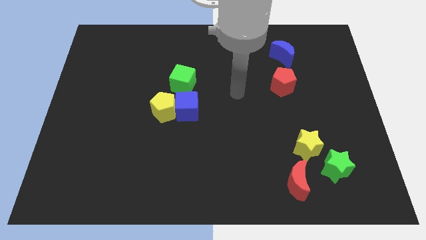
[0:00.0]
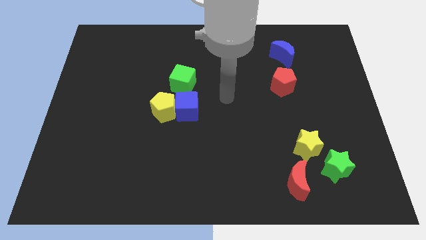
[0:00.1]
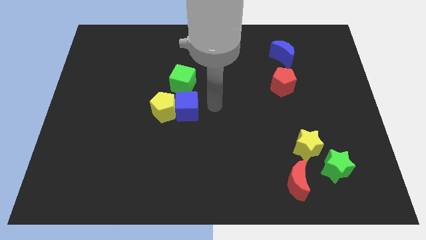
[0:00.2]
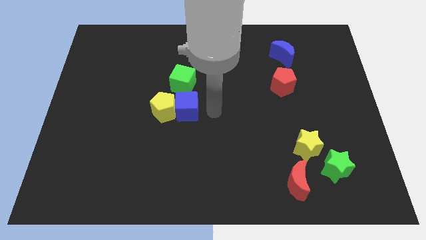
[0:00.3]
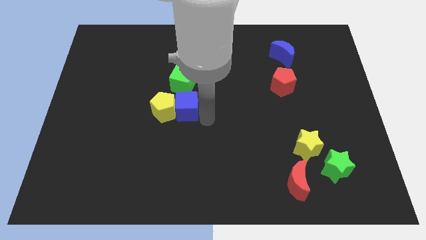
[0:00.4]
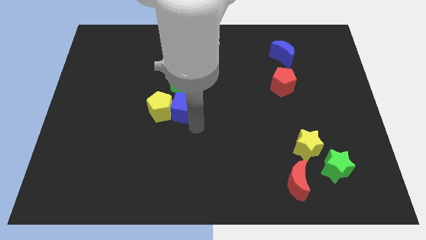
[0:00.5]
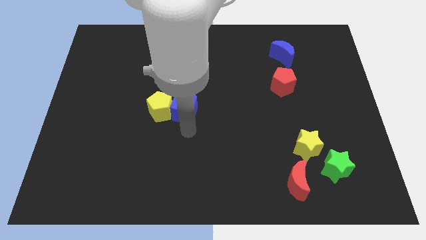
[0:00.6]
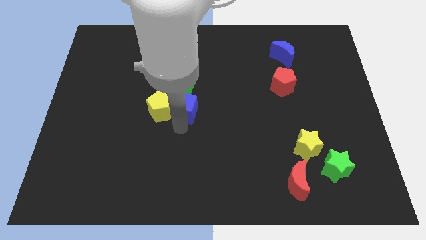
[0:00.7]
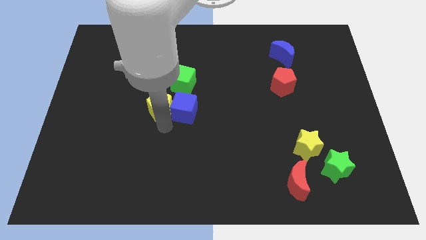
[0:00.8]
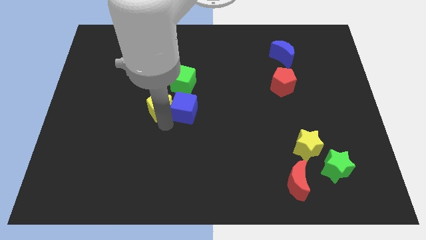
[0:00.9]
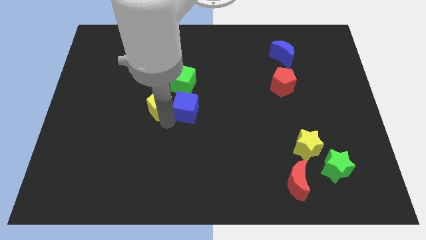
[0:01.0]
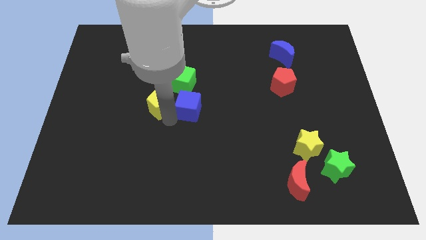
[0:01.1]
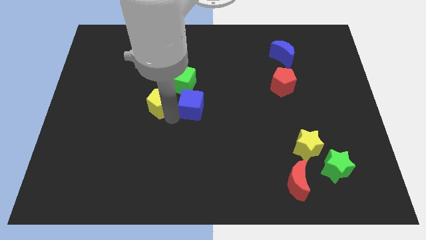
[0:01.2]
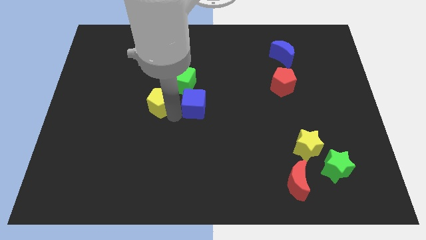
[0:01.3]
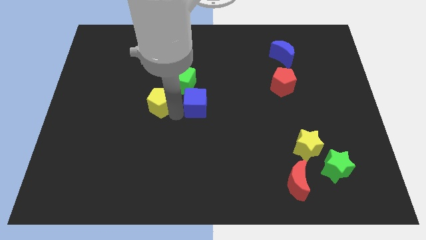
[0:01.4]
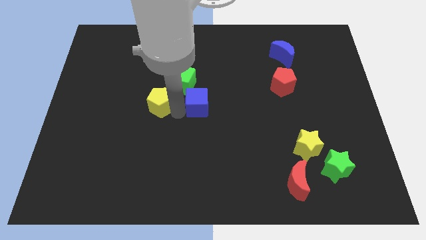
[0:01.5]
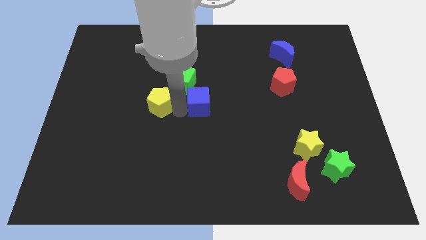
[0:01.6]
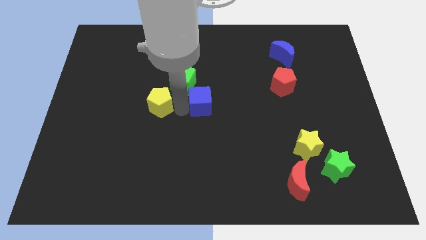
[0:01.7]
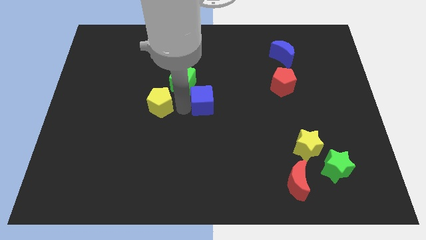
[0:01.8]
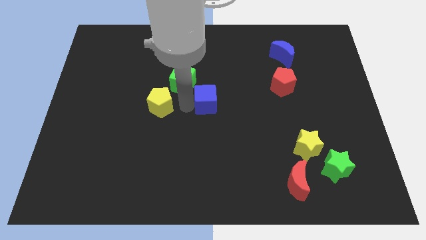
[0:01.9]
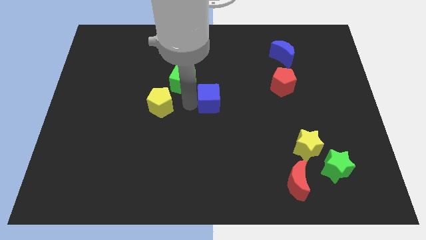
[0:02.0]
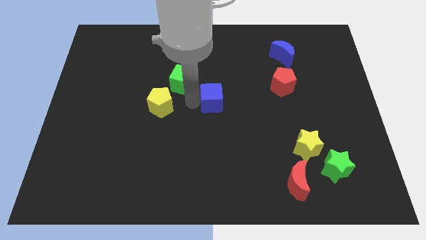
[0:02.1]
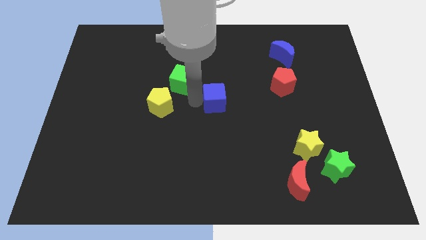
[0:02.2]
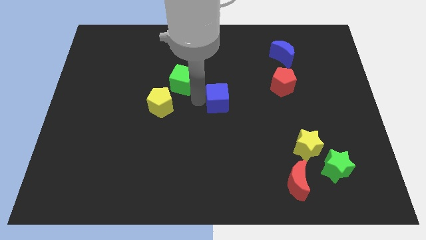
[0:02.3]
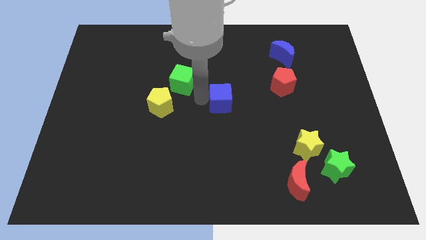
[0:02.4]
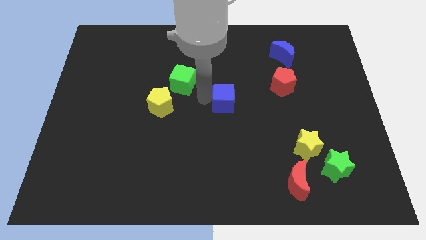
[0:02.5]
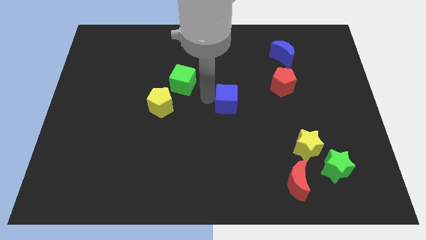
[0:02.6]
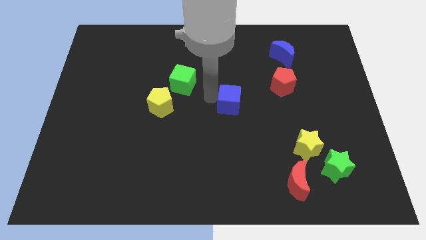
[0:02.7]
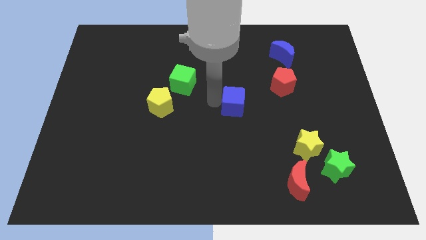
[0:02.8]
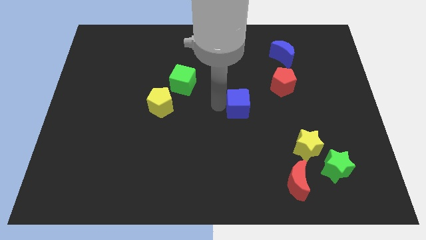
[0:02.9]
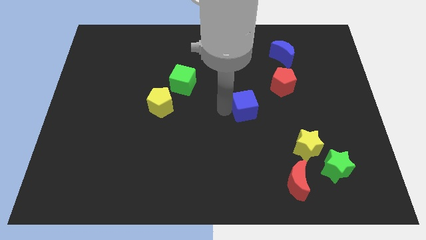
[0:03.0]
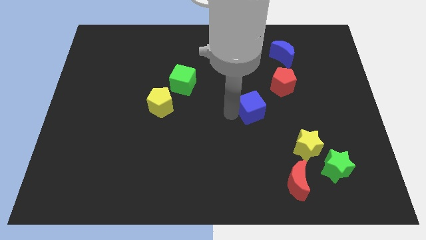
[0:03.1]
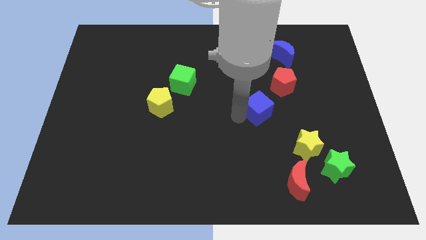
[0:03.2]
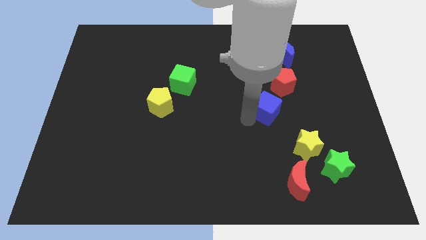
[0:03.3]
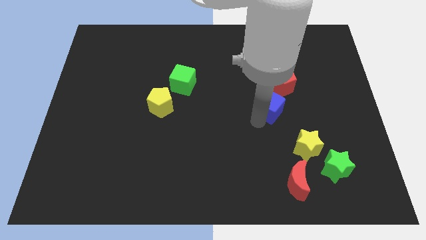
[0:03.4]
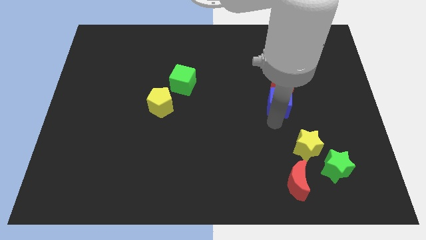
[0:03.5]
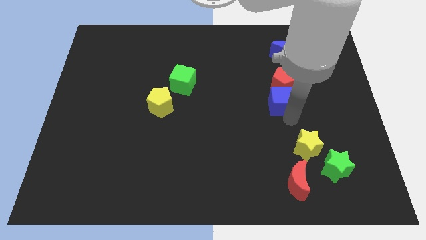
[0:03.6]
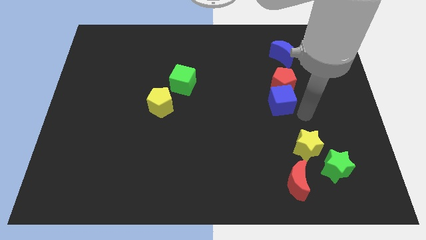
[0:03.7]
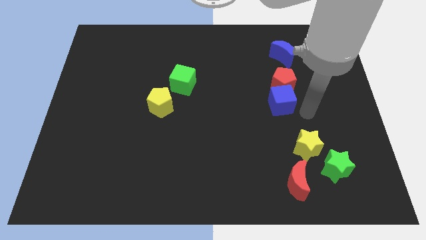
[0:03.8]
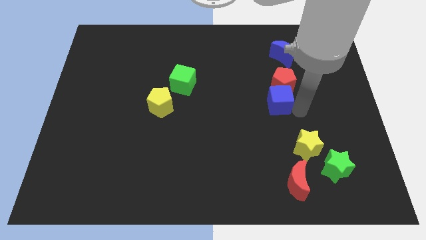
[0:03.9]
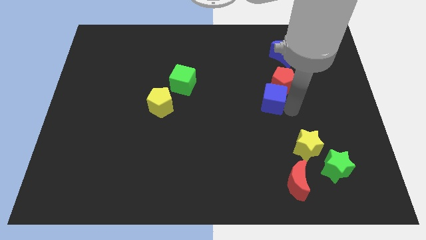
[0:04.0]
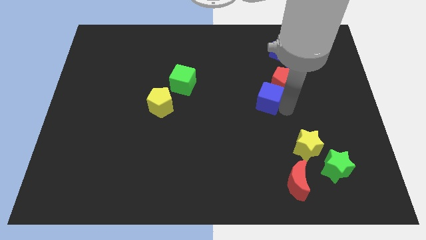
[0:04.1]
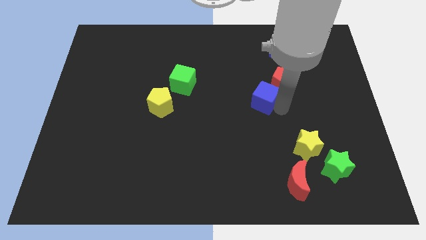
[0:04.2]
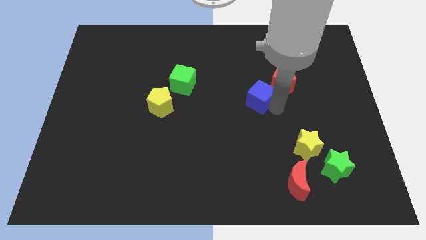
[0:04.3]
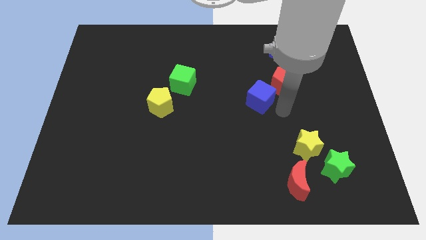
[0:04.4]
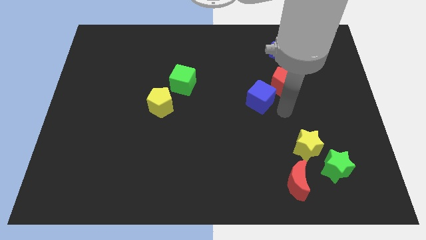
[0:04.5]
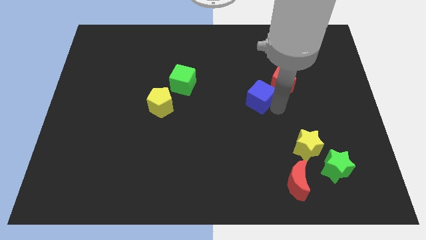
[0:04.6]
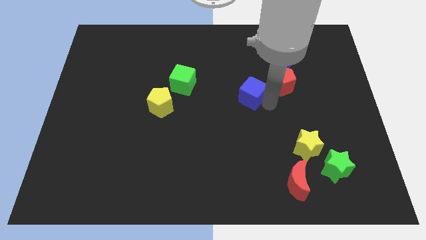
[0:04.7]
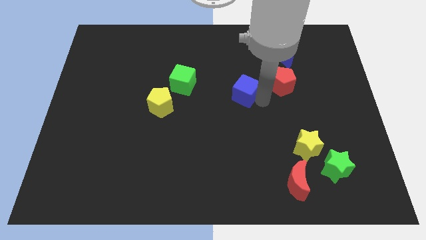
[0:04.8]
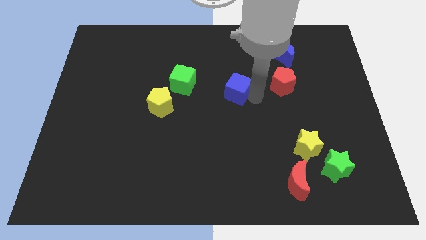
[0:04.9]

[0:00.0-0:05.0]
slide the blue cube to the right of the green cube

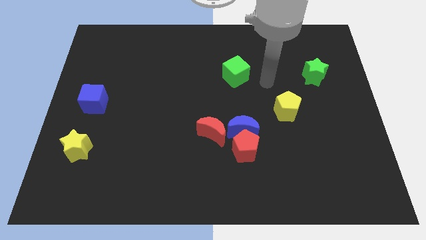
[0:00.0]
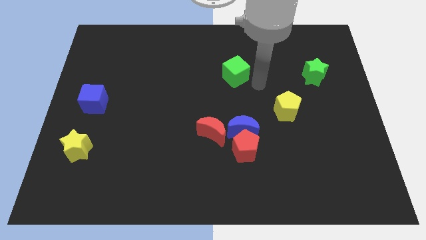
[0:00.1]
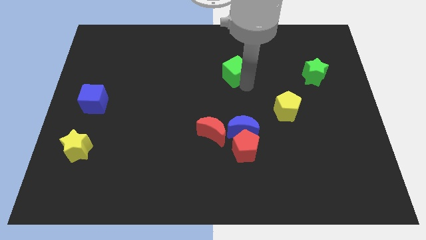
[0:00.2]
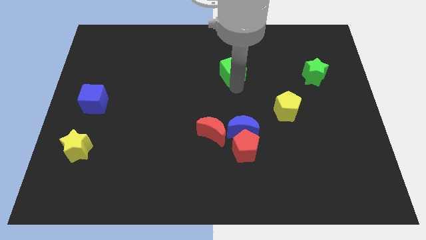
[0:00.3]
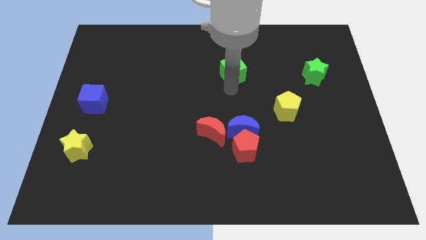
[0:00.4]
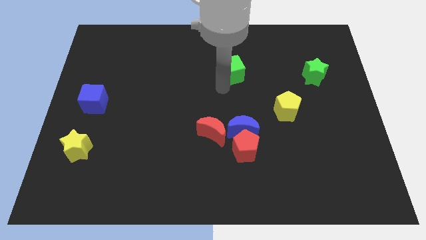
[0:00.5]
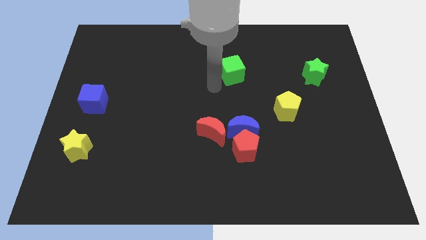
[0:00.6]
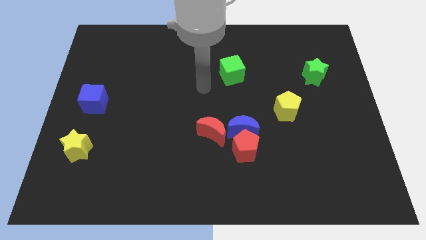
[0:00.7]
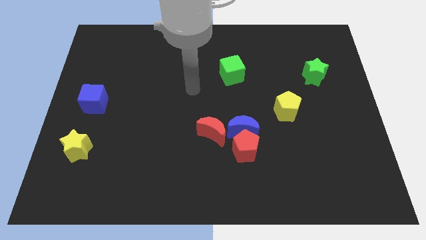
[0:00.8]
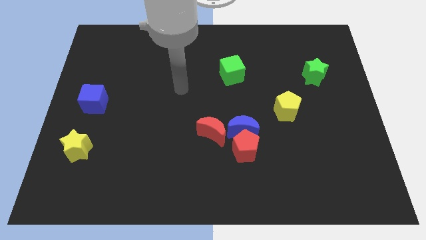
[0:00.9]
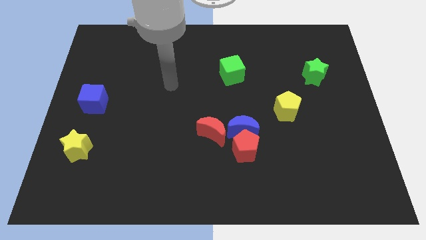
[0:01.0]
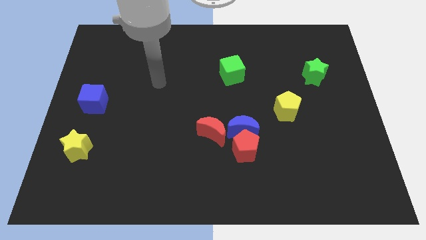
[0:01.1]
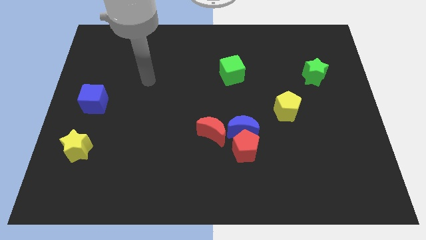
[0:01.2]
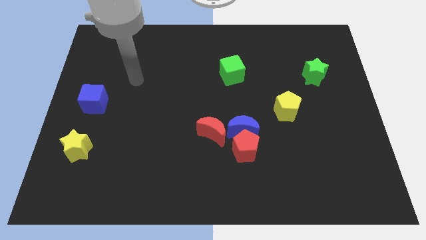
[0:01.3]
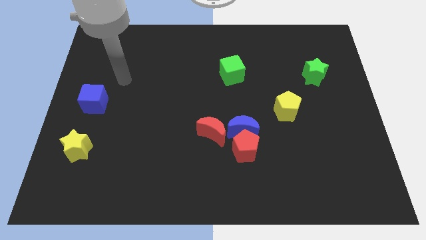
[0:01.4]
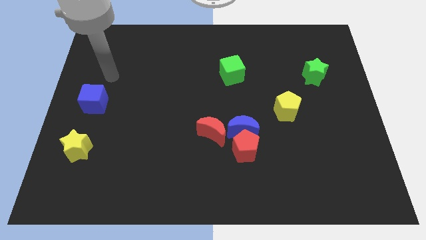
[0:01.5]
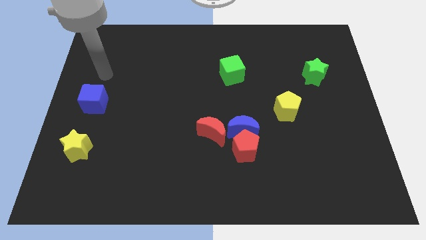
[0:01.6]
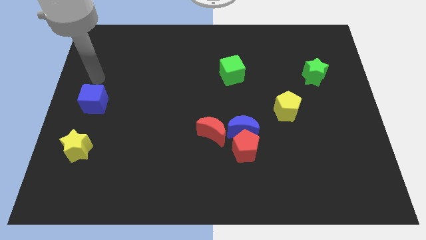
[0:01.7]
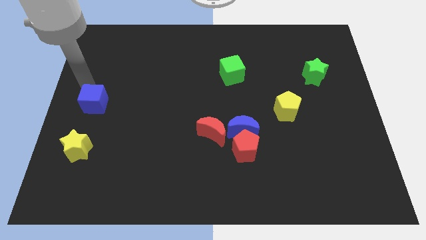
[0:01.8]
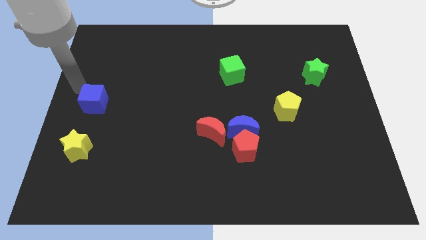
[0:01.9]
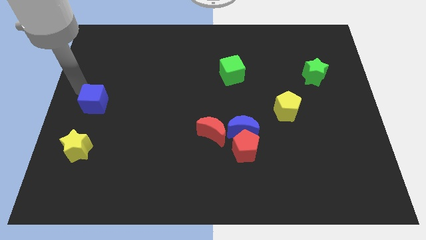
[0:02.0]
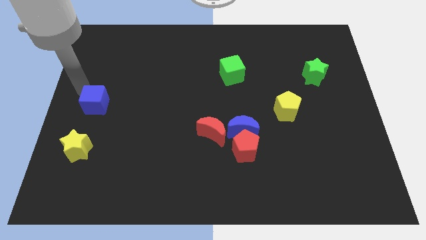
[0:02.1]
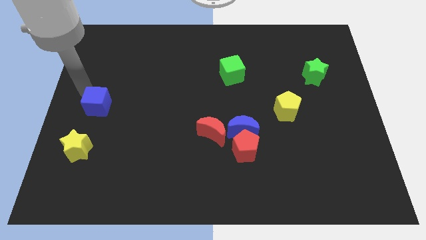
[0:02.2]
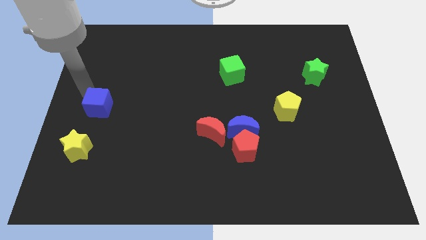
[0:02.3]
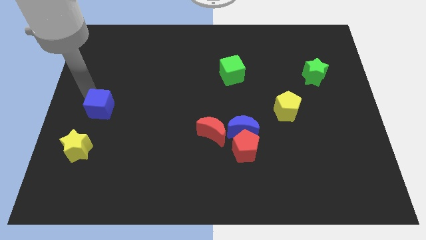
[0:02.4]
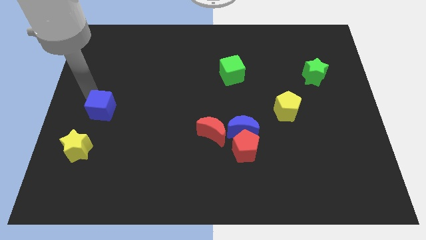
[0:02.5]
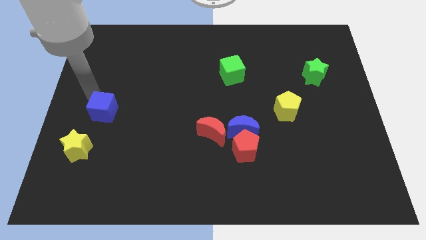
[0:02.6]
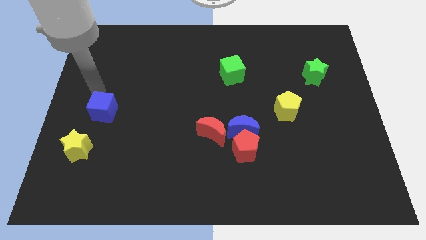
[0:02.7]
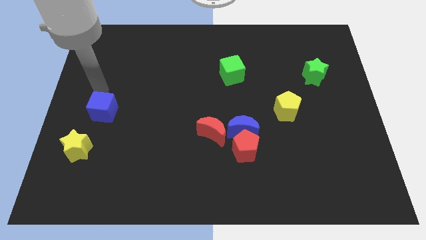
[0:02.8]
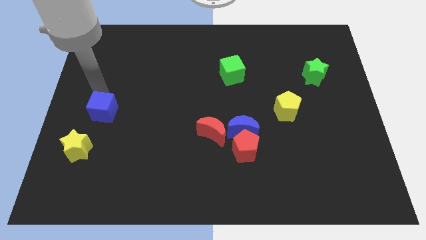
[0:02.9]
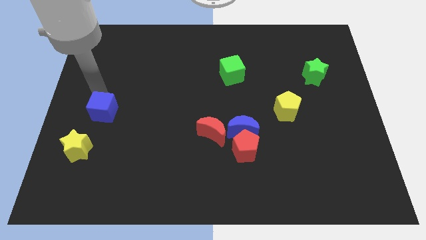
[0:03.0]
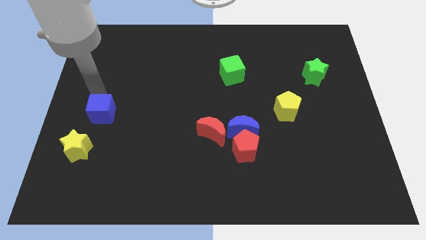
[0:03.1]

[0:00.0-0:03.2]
slide the blue cube diagonally up and to the right of the yellow star
